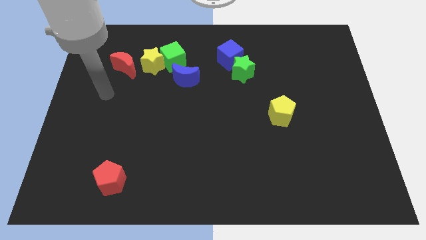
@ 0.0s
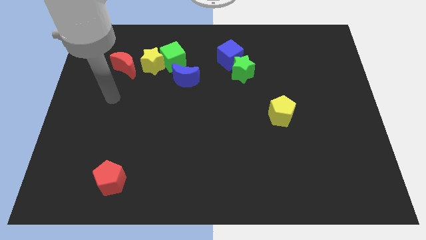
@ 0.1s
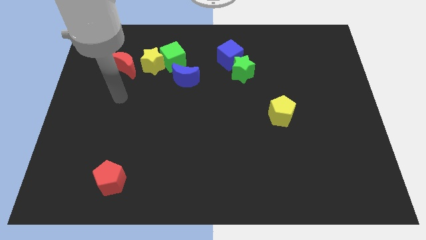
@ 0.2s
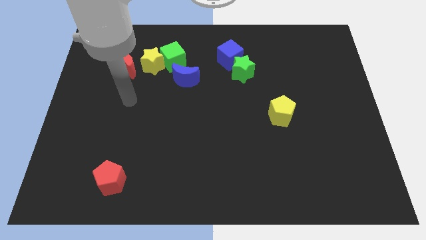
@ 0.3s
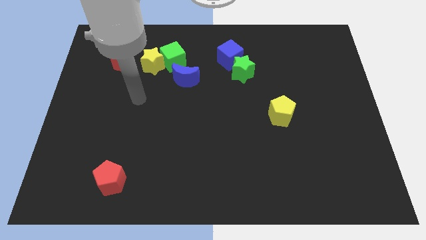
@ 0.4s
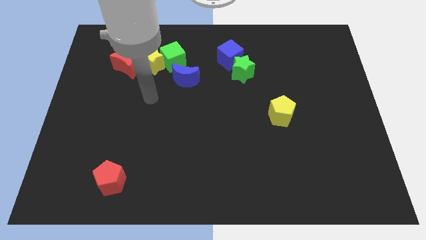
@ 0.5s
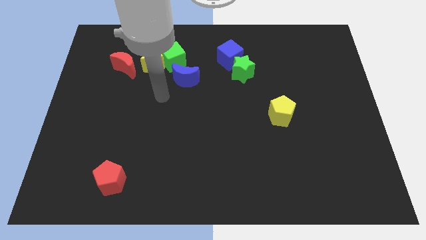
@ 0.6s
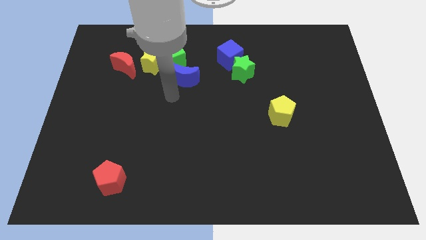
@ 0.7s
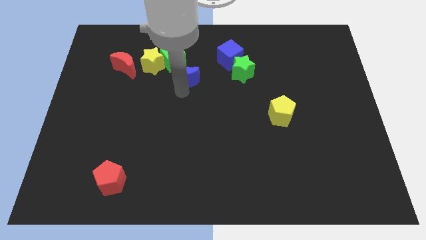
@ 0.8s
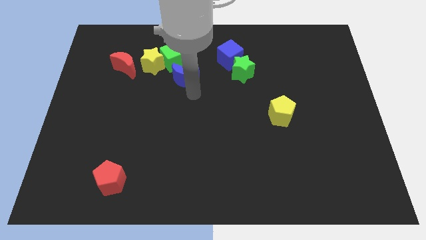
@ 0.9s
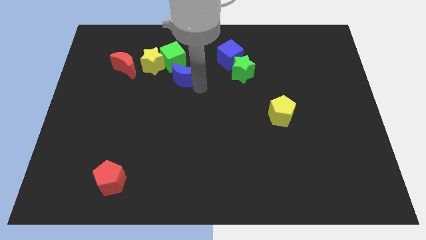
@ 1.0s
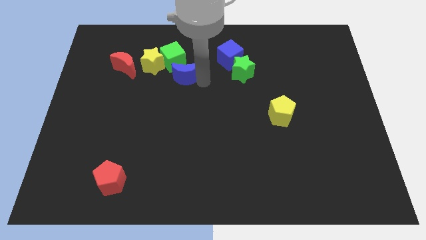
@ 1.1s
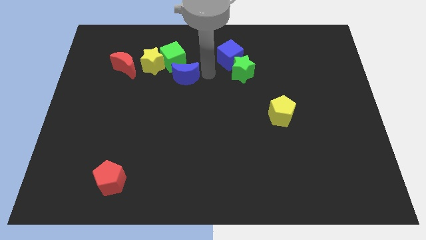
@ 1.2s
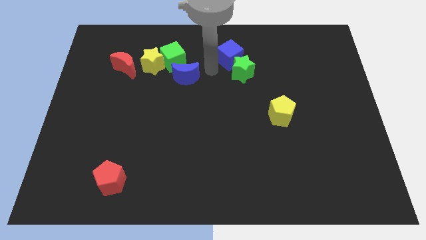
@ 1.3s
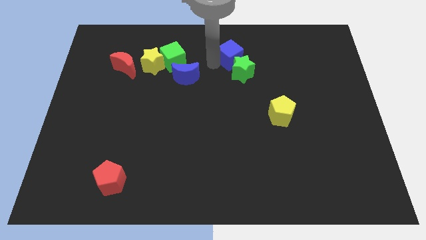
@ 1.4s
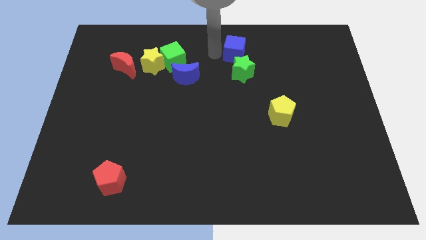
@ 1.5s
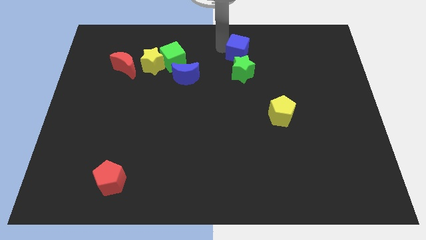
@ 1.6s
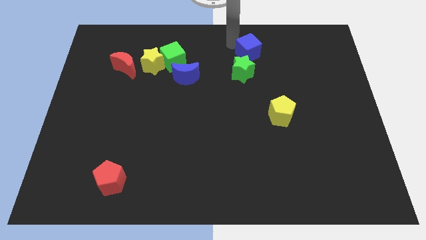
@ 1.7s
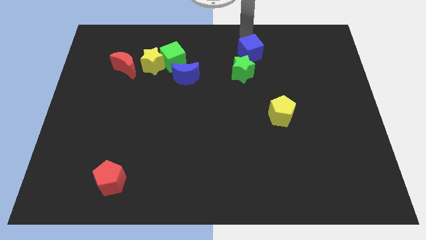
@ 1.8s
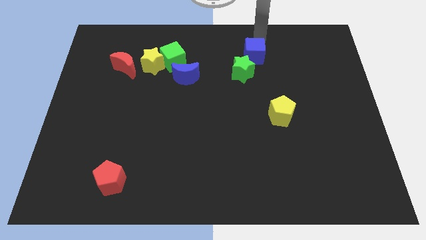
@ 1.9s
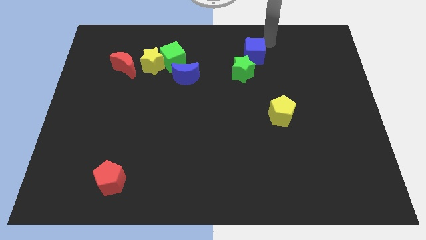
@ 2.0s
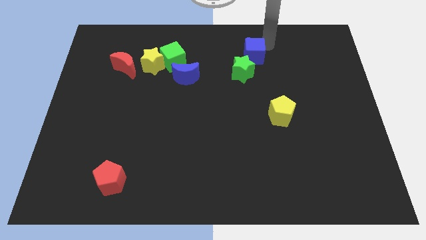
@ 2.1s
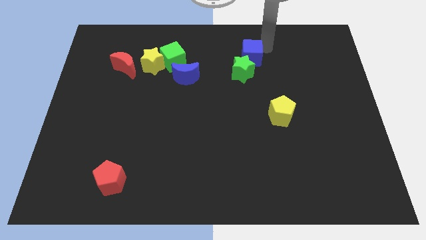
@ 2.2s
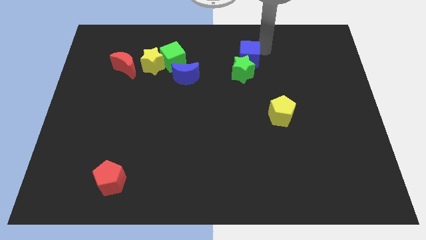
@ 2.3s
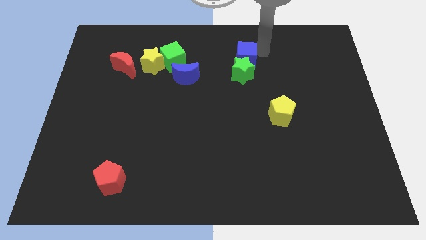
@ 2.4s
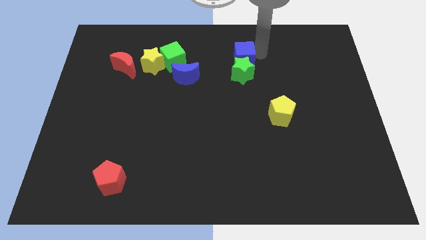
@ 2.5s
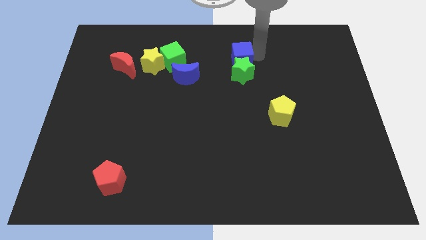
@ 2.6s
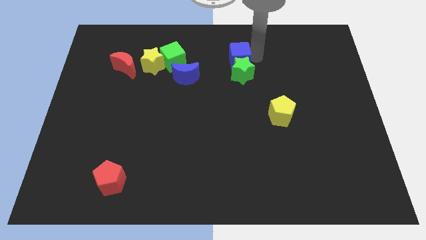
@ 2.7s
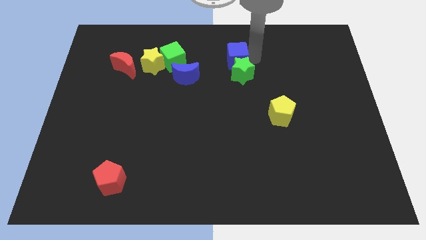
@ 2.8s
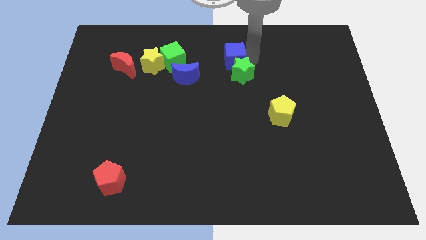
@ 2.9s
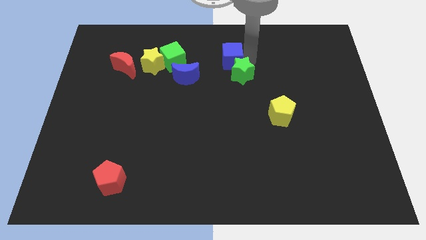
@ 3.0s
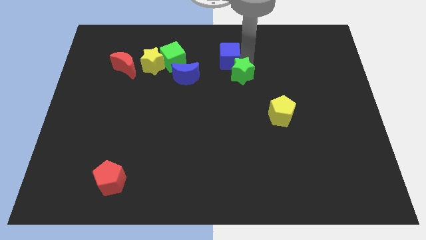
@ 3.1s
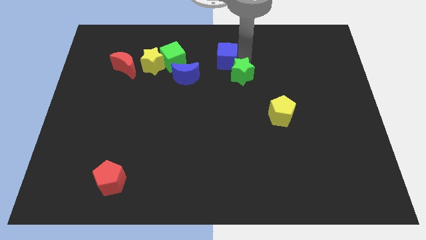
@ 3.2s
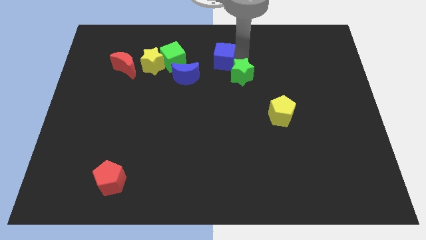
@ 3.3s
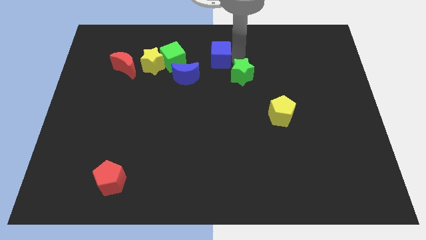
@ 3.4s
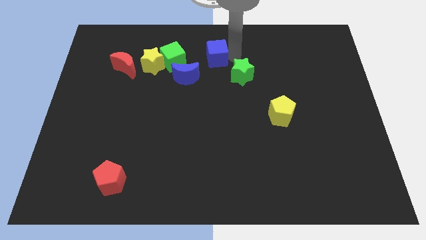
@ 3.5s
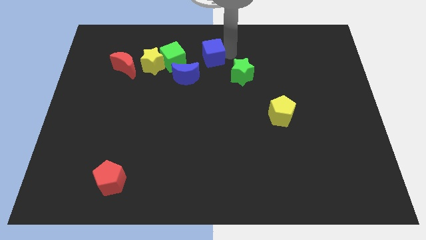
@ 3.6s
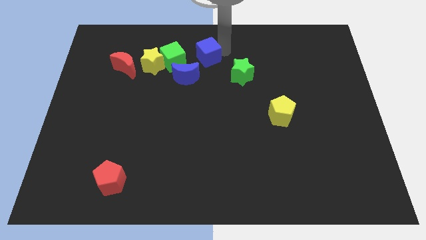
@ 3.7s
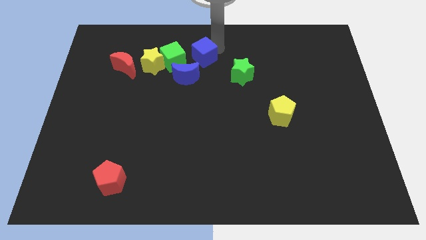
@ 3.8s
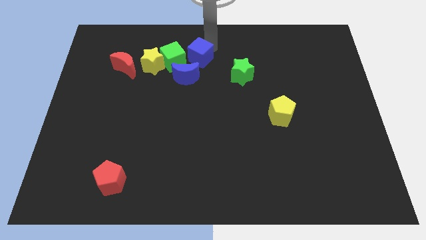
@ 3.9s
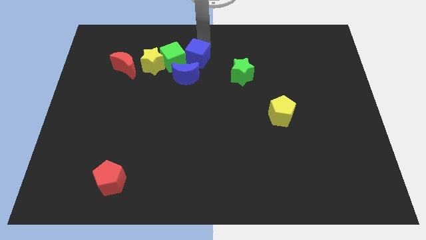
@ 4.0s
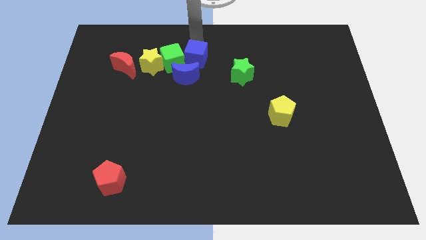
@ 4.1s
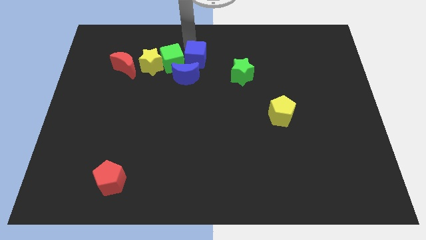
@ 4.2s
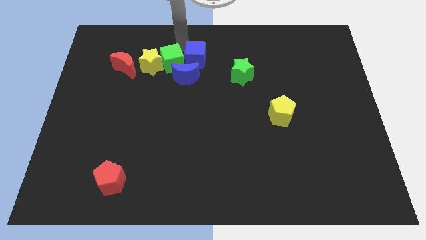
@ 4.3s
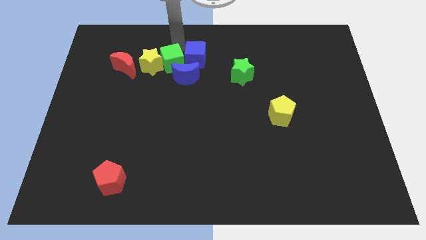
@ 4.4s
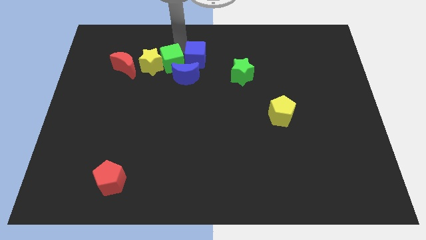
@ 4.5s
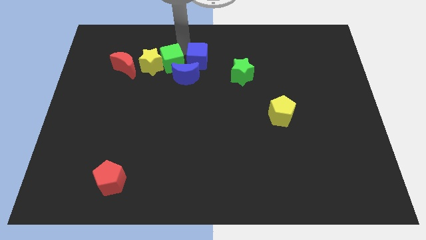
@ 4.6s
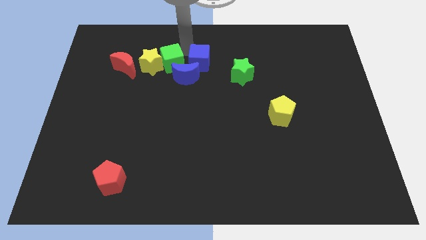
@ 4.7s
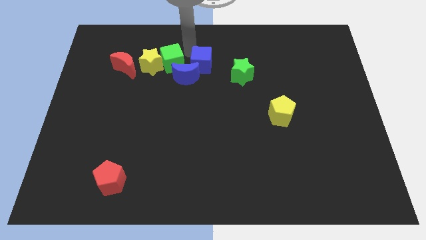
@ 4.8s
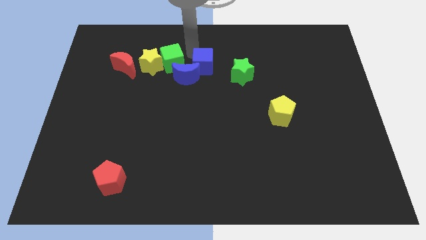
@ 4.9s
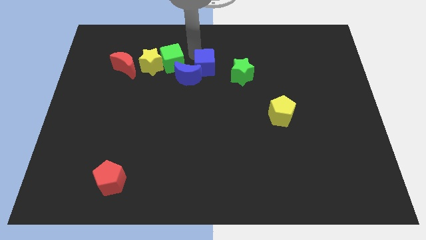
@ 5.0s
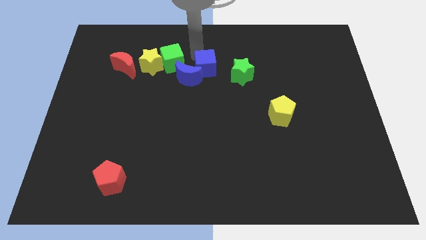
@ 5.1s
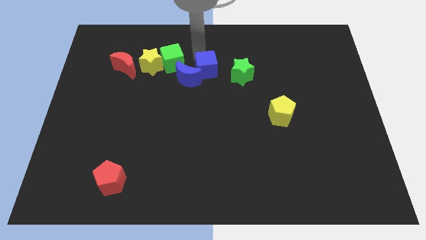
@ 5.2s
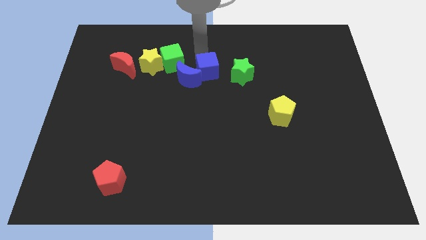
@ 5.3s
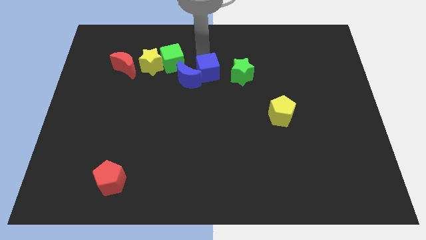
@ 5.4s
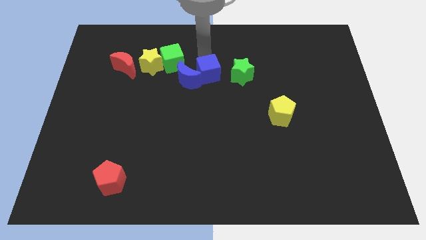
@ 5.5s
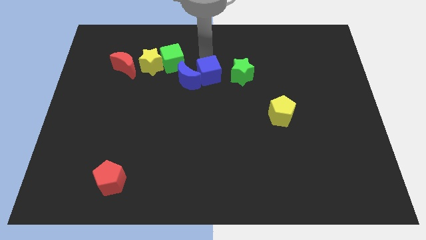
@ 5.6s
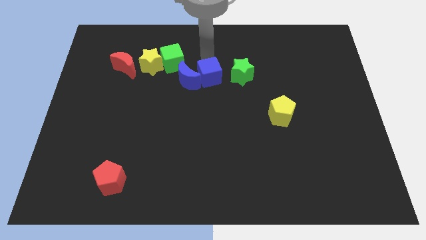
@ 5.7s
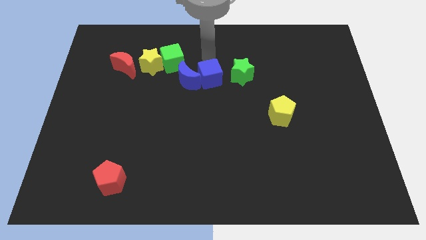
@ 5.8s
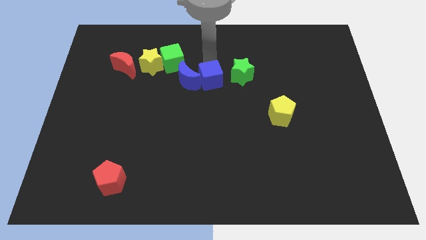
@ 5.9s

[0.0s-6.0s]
push the blue cube diagonally down and to the left of the green star

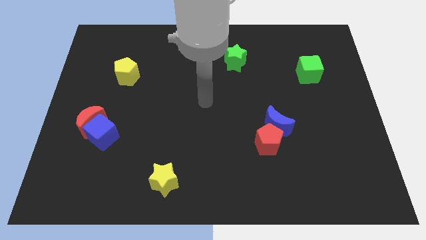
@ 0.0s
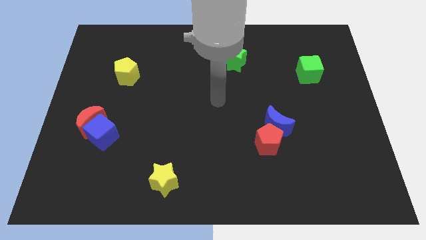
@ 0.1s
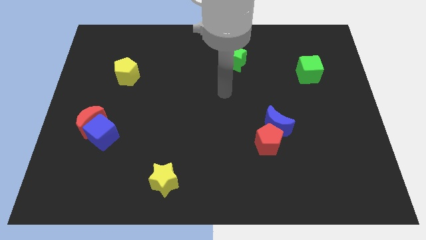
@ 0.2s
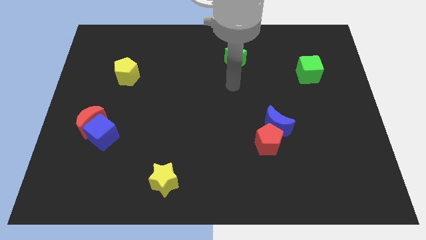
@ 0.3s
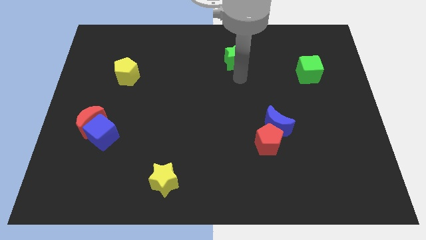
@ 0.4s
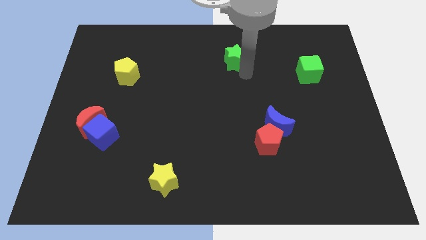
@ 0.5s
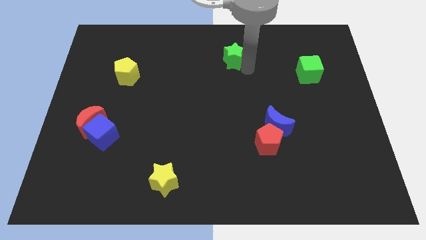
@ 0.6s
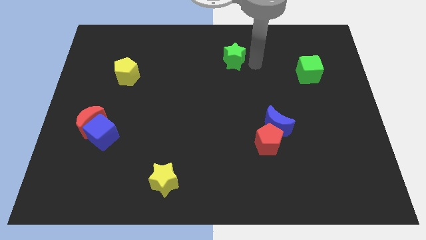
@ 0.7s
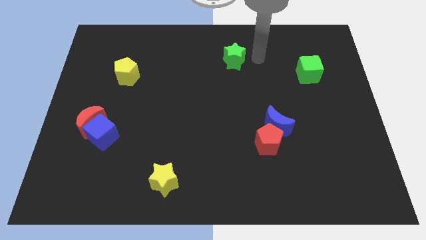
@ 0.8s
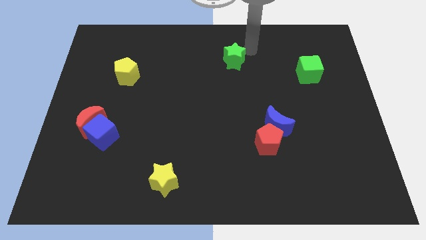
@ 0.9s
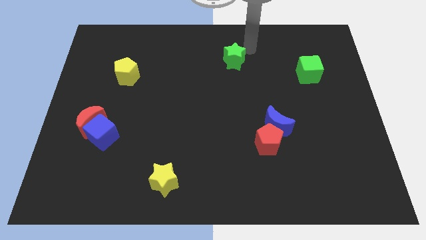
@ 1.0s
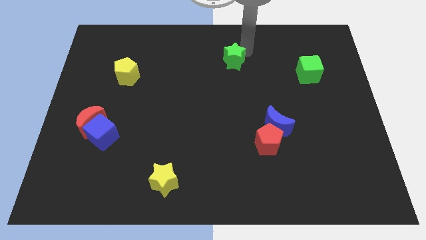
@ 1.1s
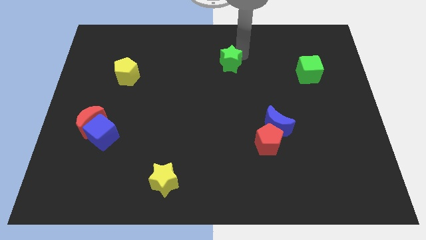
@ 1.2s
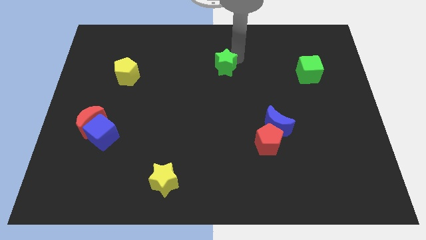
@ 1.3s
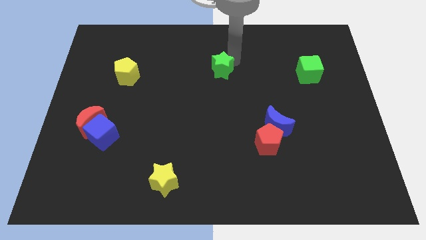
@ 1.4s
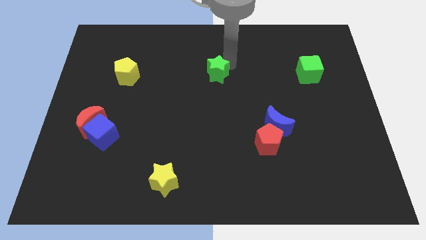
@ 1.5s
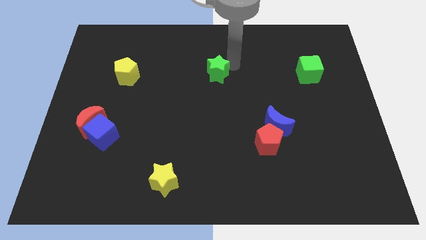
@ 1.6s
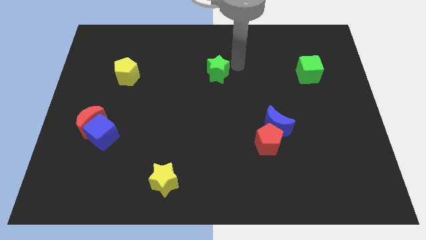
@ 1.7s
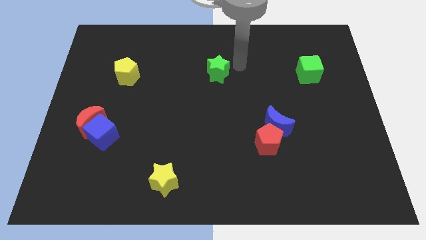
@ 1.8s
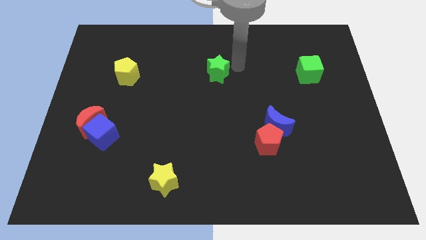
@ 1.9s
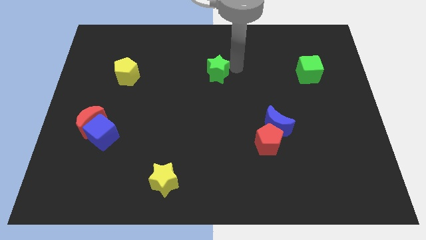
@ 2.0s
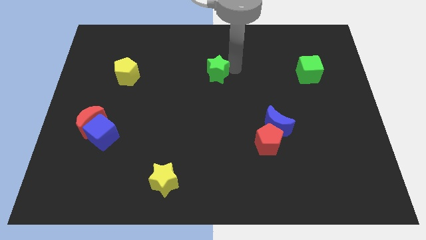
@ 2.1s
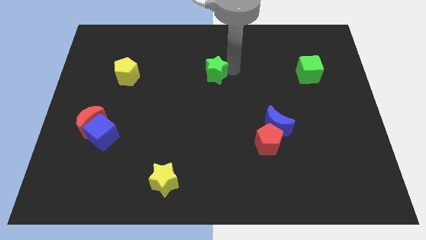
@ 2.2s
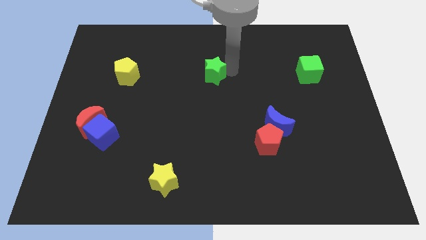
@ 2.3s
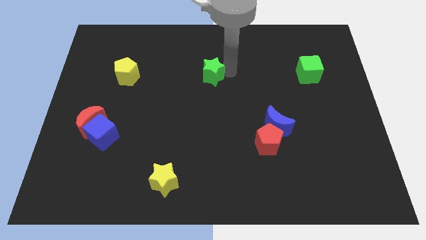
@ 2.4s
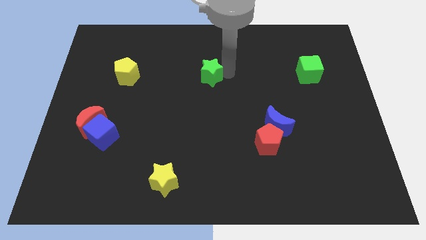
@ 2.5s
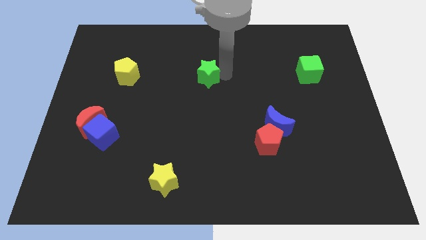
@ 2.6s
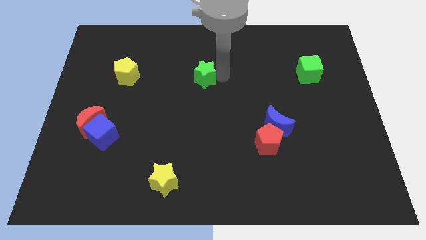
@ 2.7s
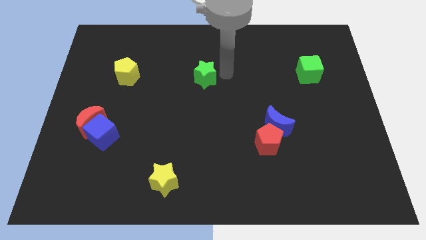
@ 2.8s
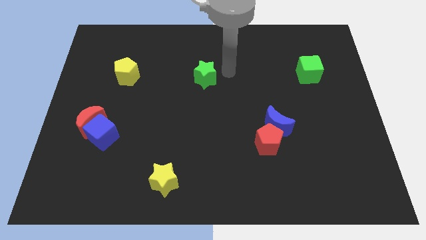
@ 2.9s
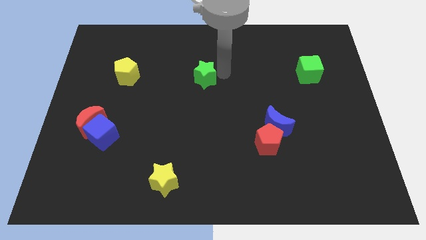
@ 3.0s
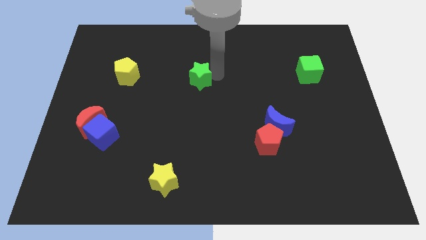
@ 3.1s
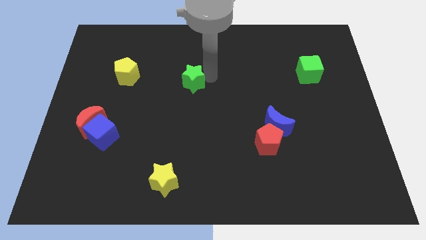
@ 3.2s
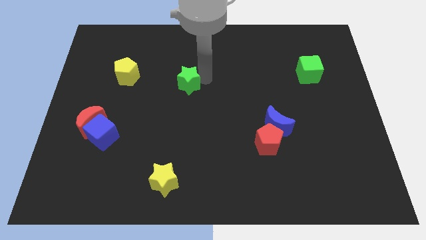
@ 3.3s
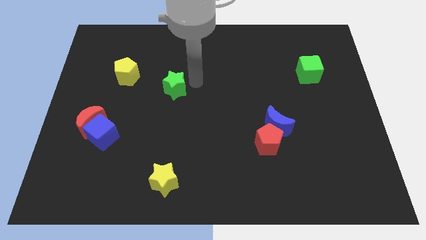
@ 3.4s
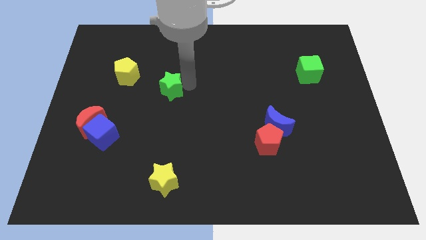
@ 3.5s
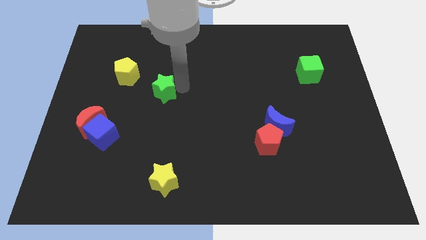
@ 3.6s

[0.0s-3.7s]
move the green star to the bottom right of the yellow pentagon
